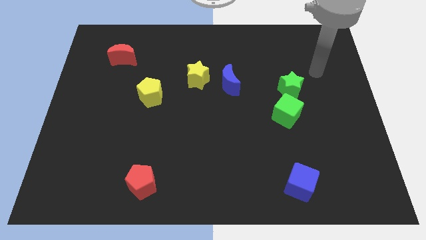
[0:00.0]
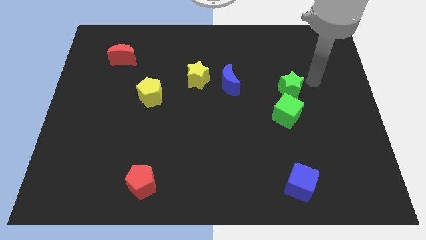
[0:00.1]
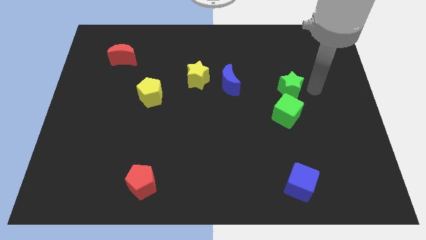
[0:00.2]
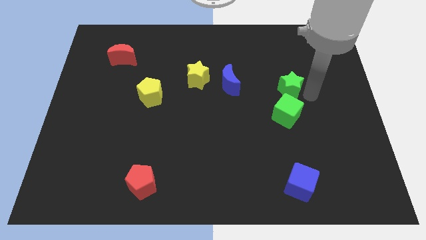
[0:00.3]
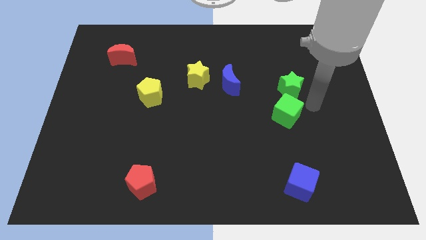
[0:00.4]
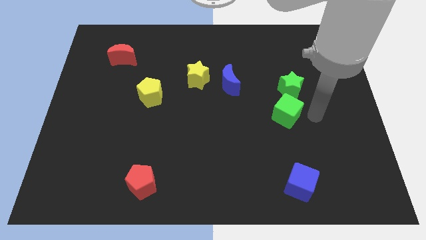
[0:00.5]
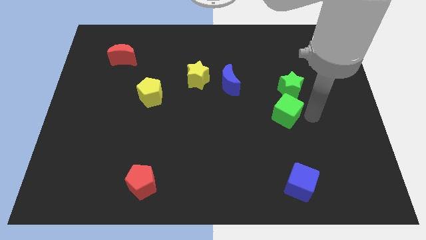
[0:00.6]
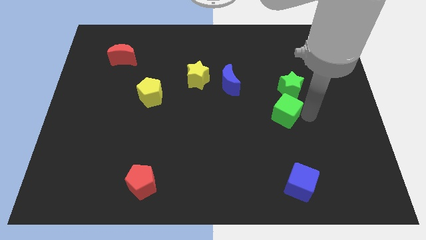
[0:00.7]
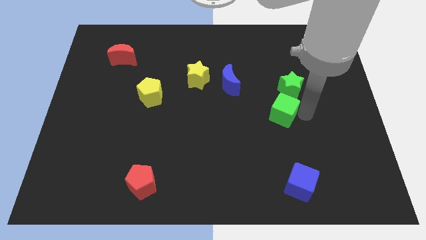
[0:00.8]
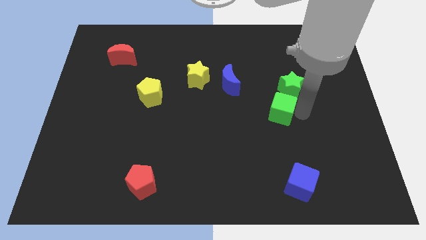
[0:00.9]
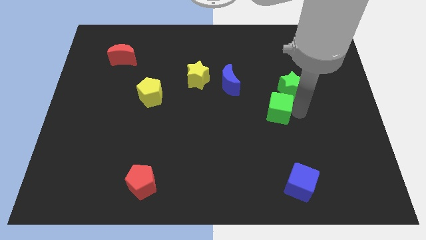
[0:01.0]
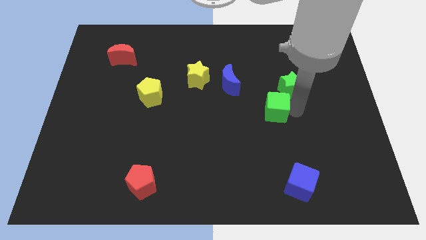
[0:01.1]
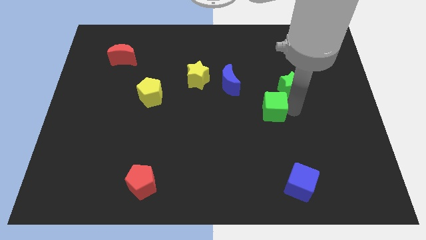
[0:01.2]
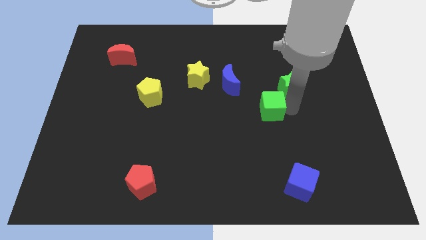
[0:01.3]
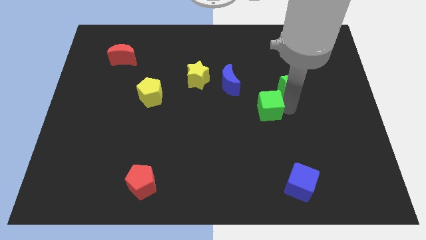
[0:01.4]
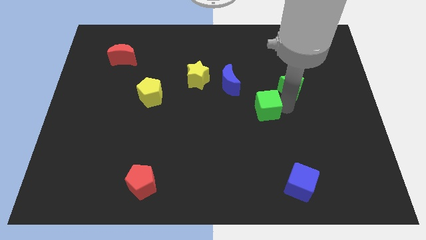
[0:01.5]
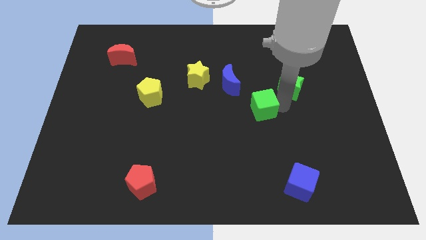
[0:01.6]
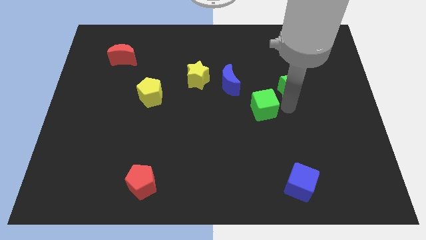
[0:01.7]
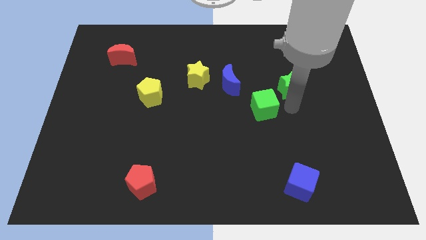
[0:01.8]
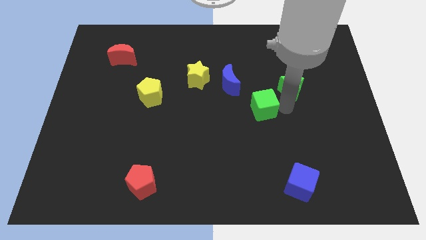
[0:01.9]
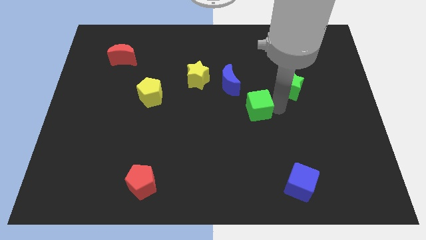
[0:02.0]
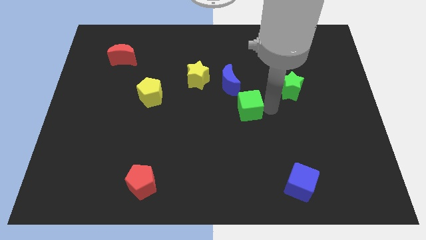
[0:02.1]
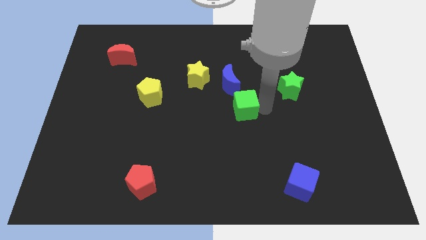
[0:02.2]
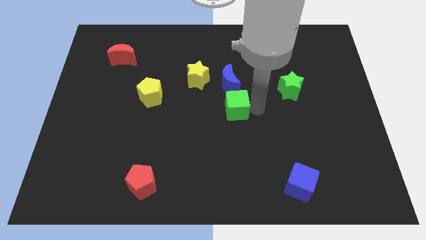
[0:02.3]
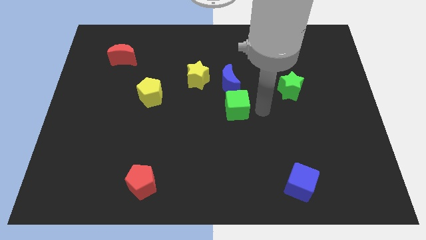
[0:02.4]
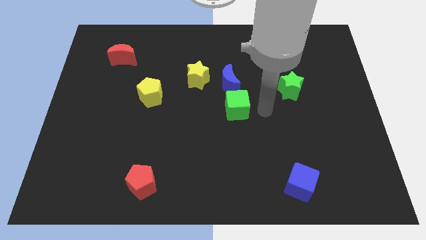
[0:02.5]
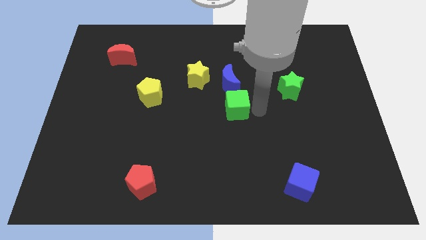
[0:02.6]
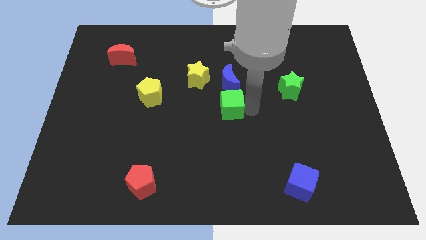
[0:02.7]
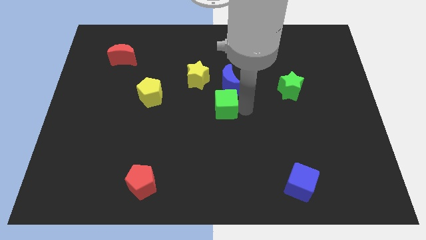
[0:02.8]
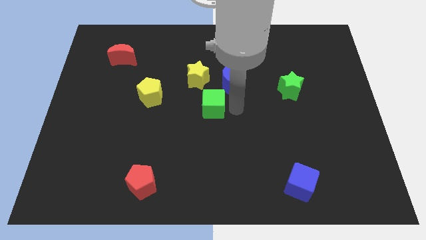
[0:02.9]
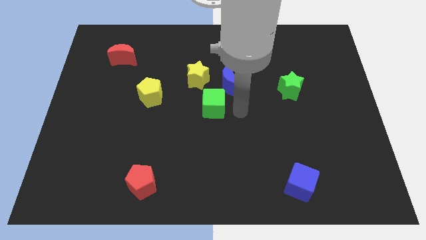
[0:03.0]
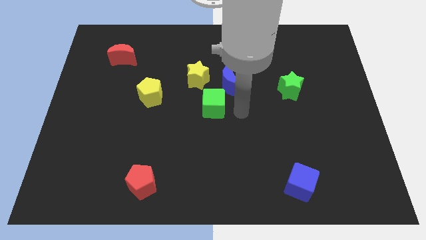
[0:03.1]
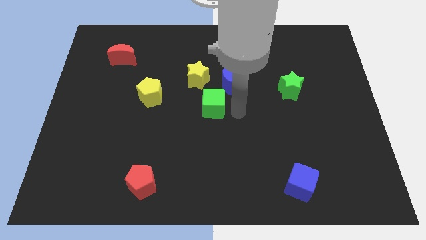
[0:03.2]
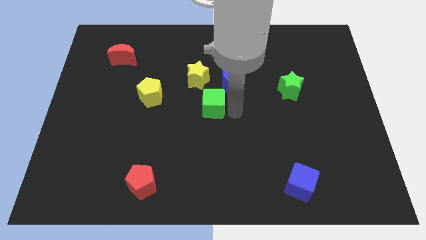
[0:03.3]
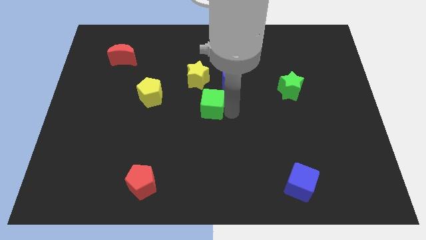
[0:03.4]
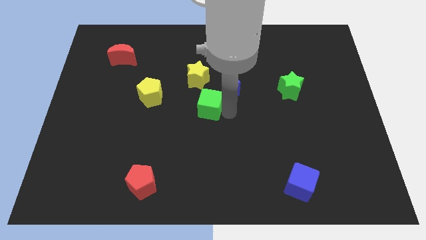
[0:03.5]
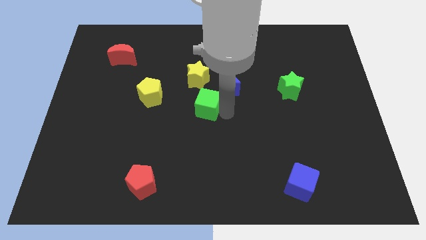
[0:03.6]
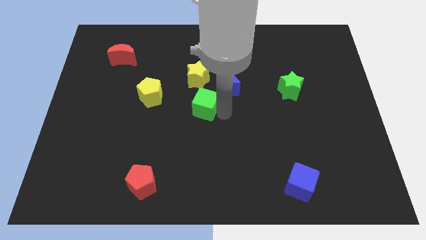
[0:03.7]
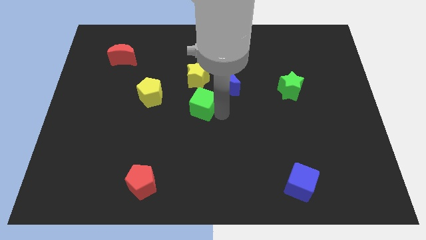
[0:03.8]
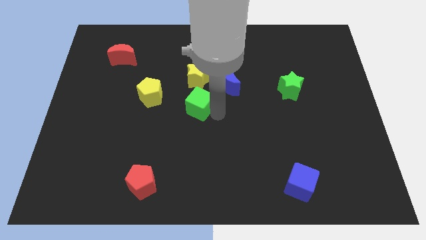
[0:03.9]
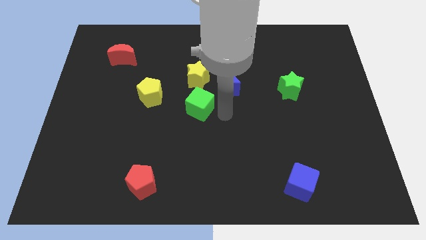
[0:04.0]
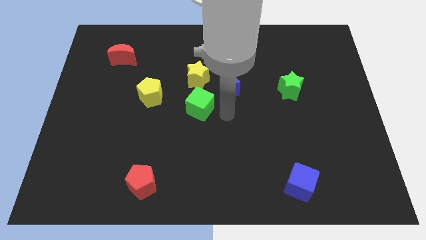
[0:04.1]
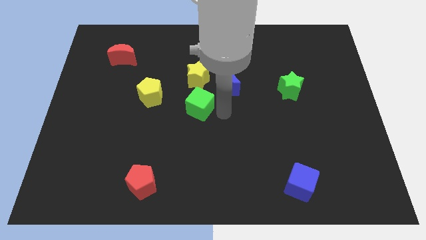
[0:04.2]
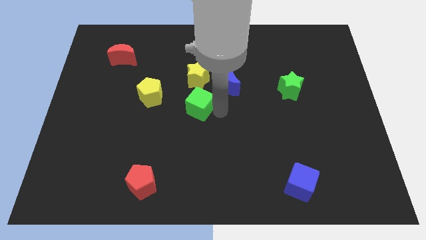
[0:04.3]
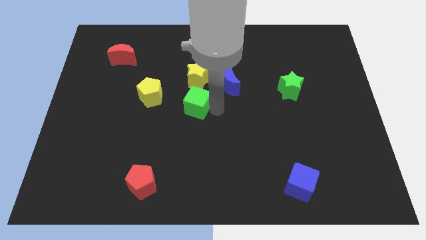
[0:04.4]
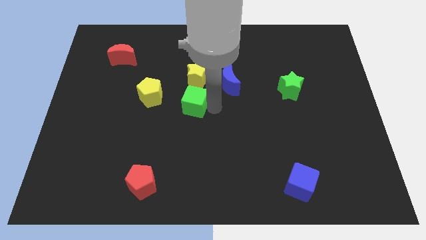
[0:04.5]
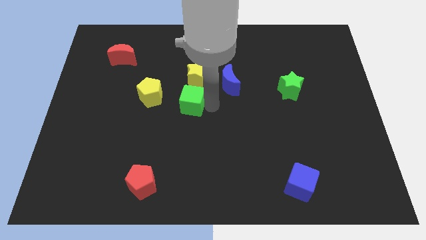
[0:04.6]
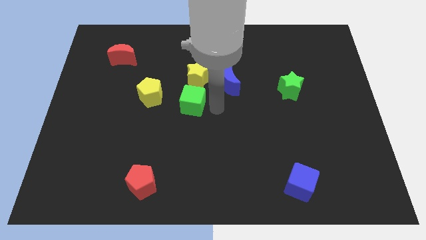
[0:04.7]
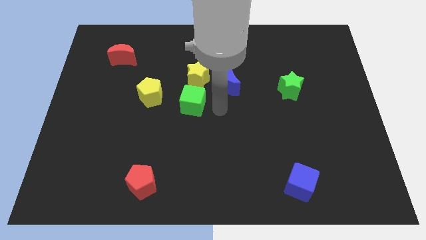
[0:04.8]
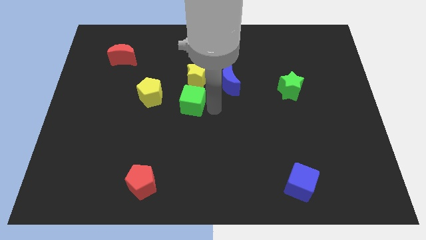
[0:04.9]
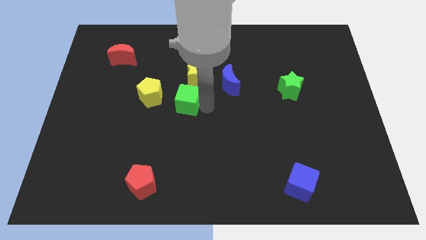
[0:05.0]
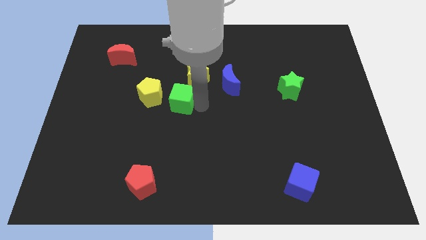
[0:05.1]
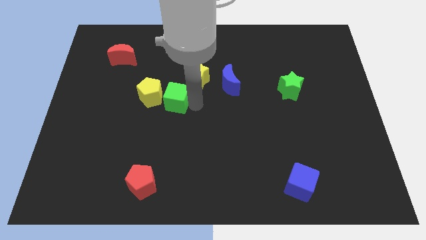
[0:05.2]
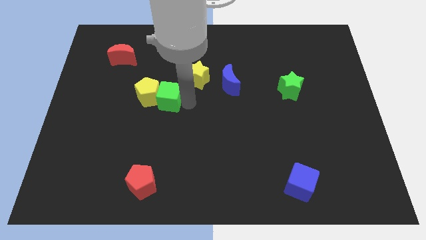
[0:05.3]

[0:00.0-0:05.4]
slide the green cube towards the yellow pentagon

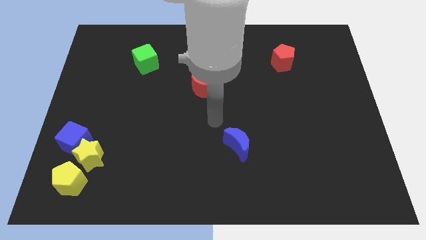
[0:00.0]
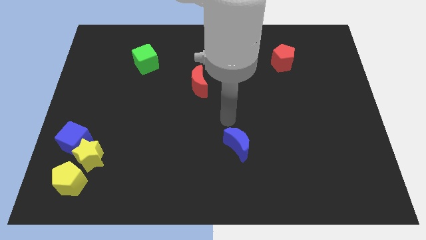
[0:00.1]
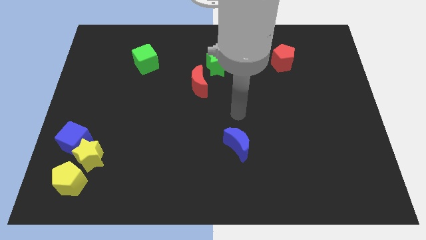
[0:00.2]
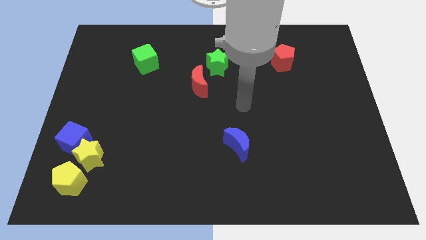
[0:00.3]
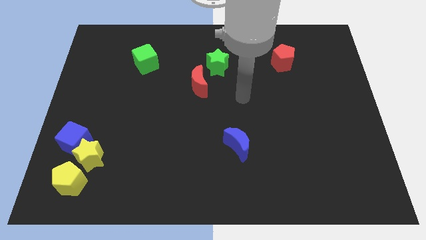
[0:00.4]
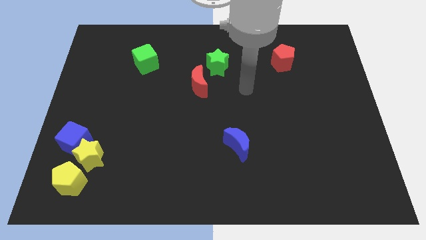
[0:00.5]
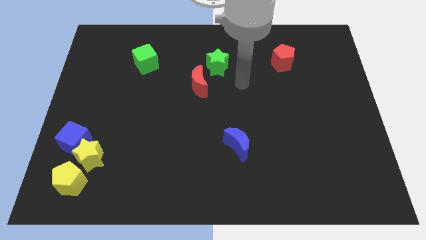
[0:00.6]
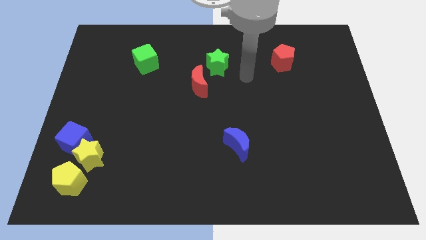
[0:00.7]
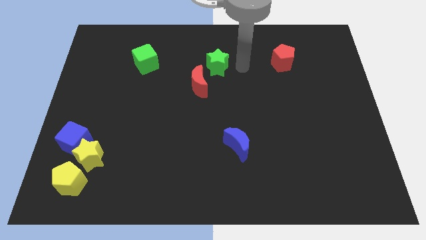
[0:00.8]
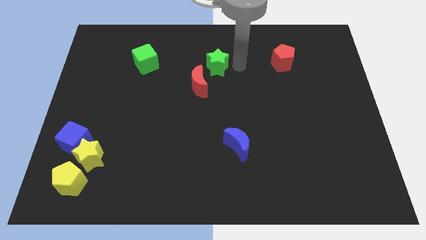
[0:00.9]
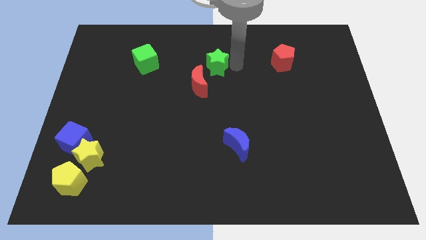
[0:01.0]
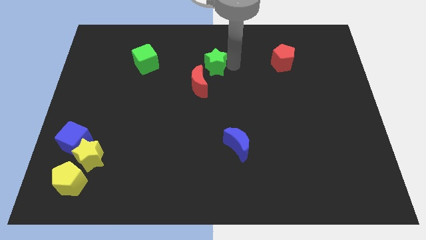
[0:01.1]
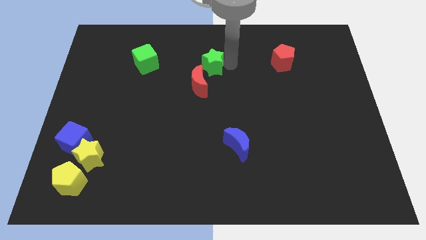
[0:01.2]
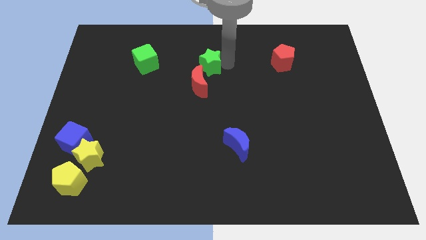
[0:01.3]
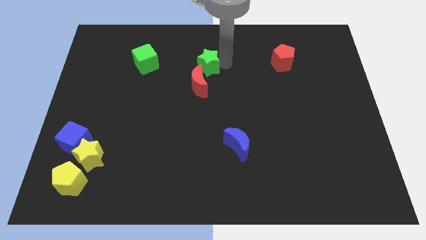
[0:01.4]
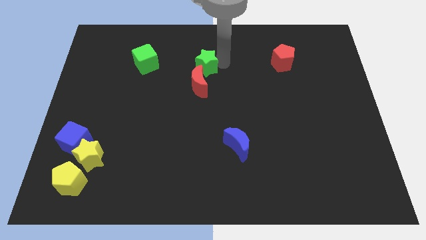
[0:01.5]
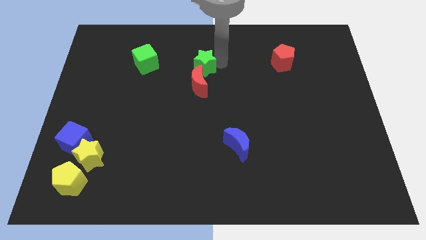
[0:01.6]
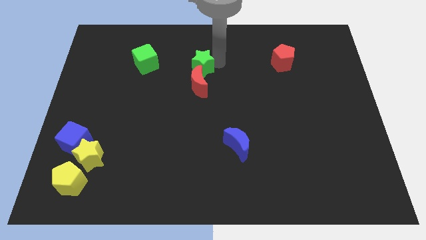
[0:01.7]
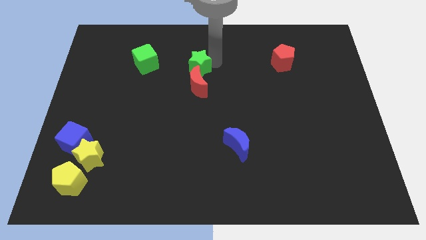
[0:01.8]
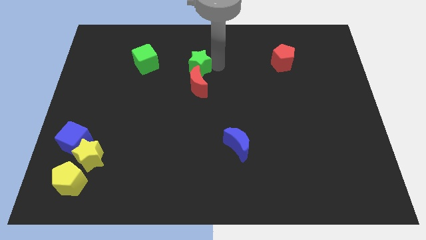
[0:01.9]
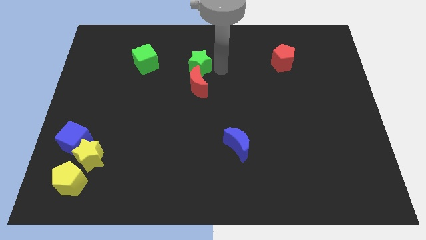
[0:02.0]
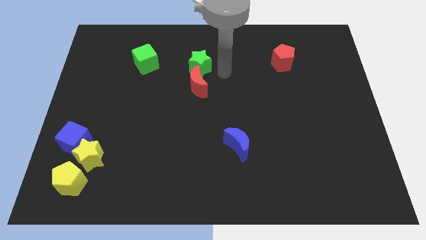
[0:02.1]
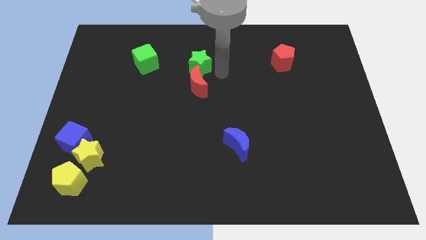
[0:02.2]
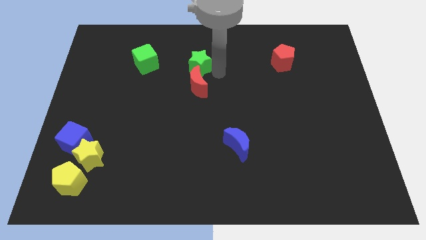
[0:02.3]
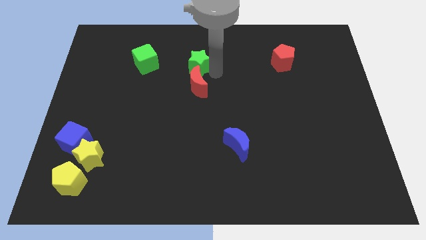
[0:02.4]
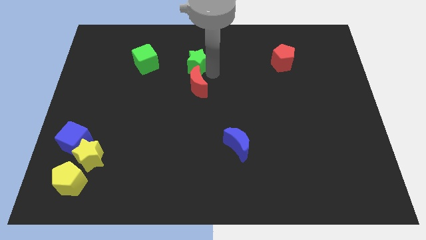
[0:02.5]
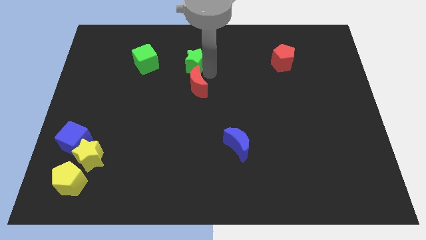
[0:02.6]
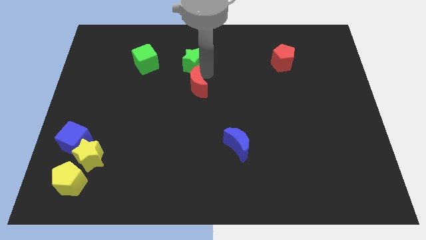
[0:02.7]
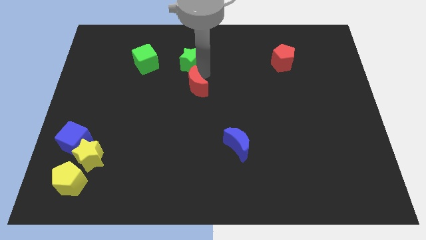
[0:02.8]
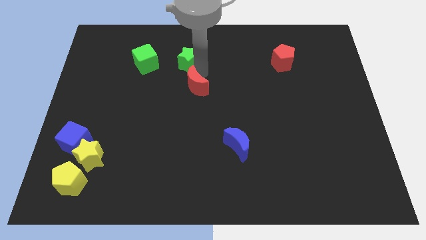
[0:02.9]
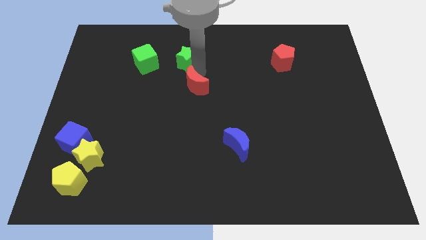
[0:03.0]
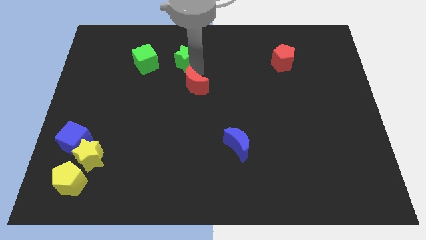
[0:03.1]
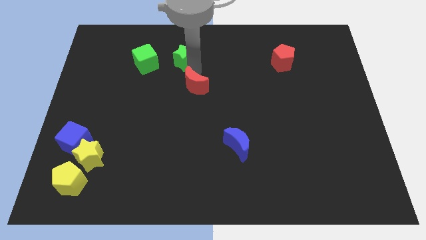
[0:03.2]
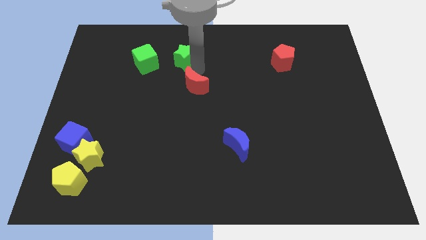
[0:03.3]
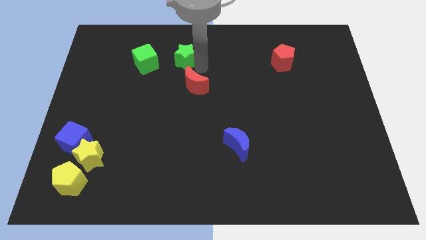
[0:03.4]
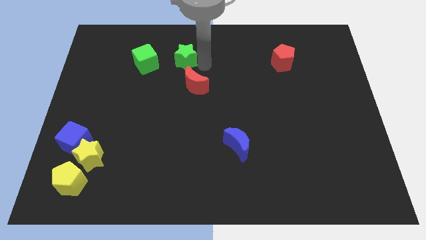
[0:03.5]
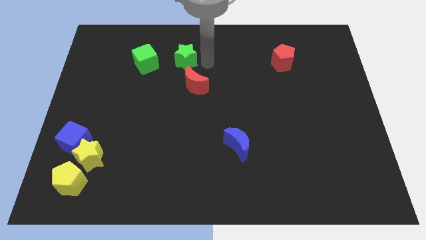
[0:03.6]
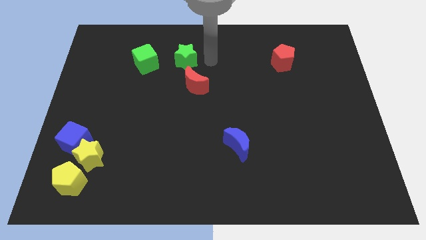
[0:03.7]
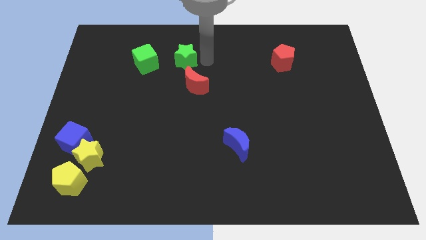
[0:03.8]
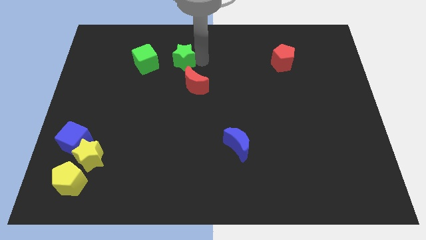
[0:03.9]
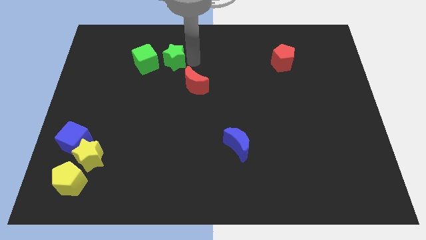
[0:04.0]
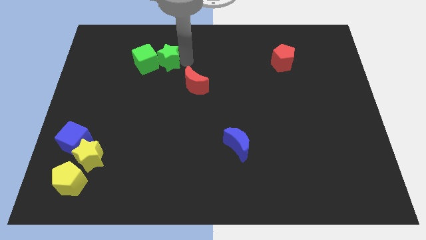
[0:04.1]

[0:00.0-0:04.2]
push the green star towards the green cube
